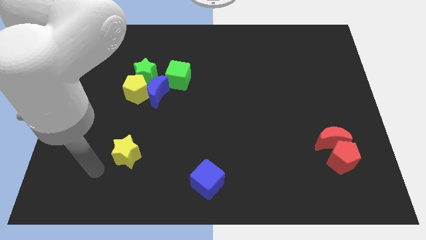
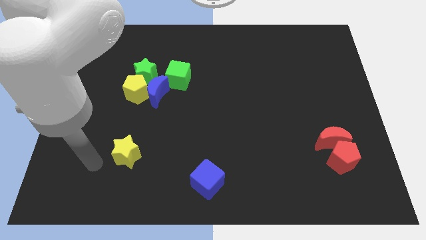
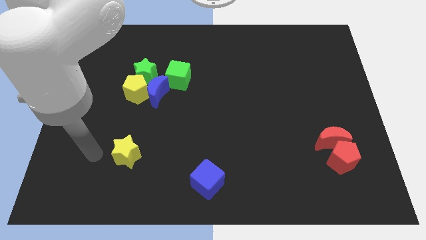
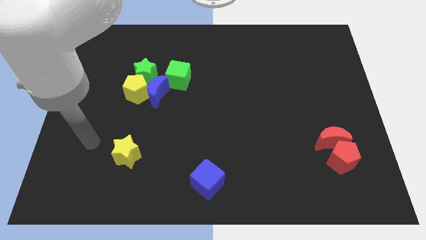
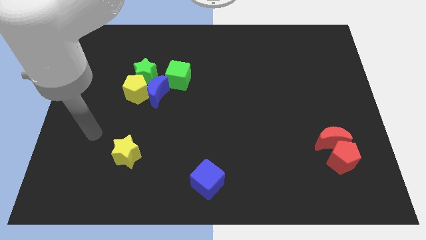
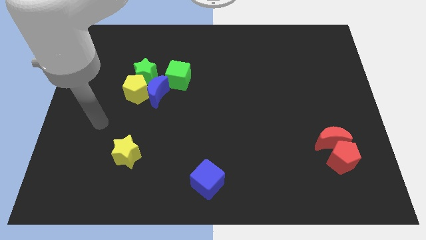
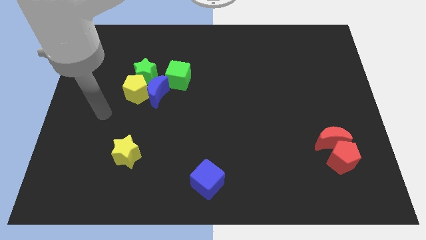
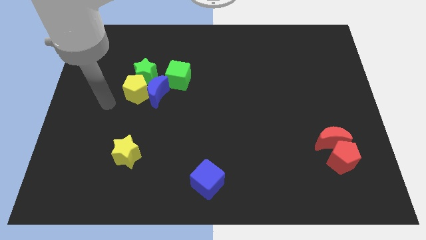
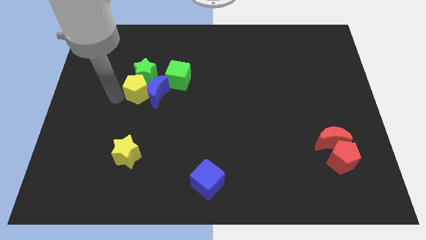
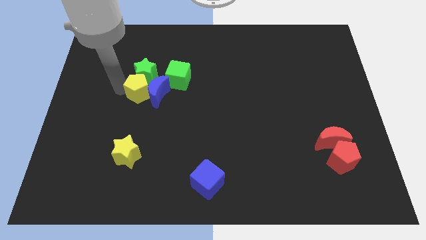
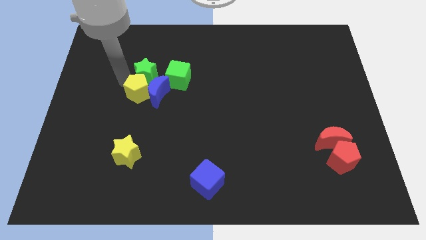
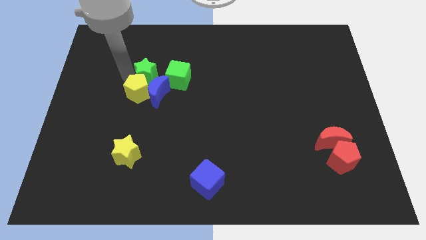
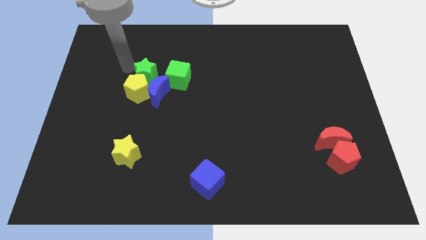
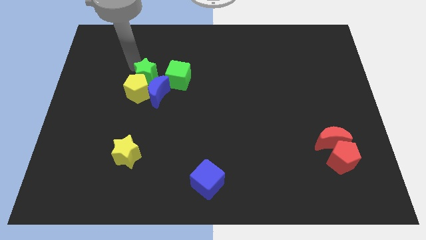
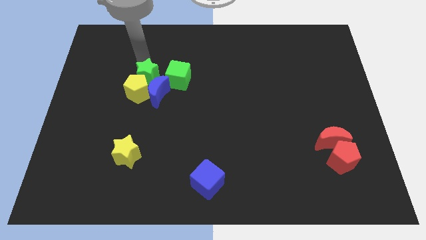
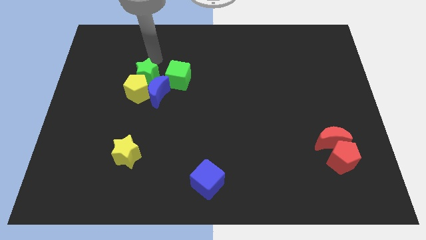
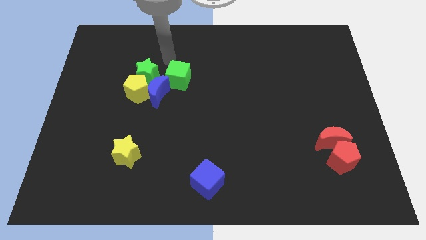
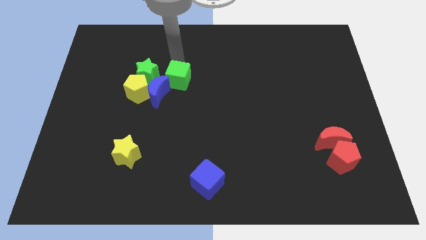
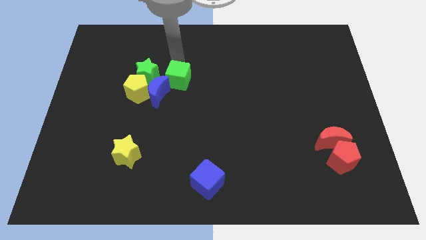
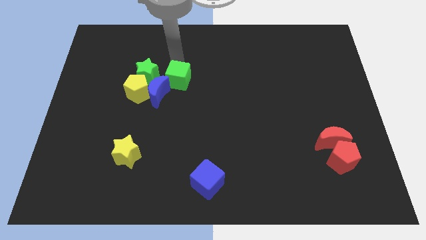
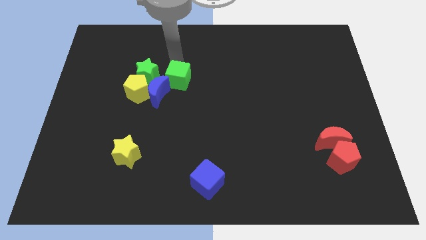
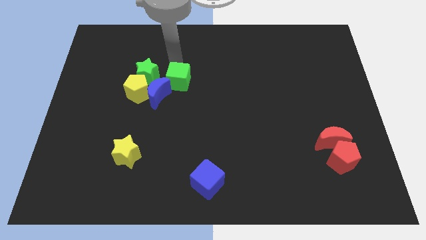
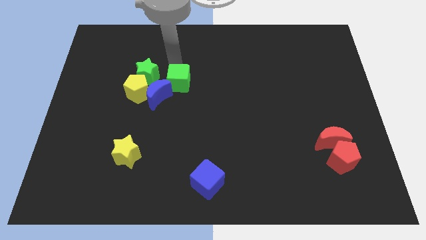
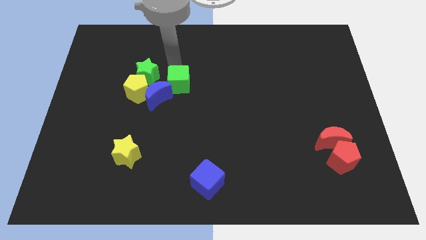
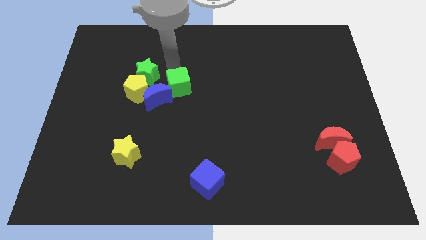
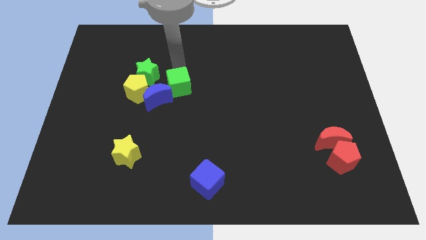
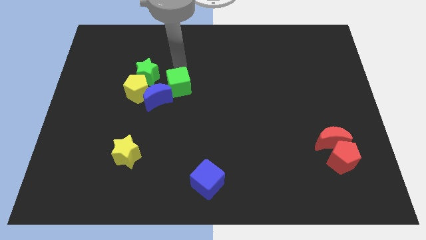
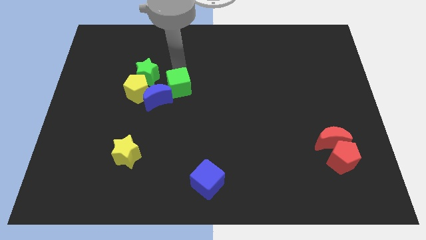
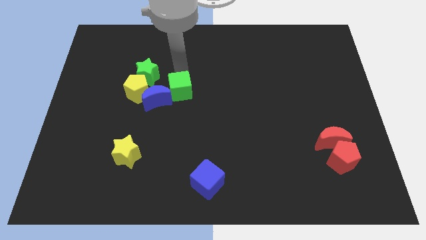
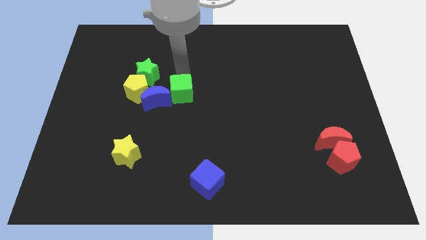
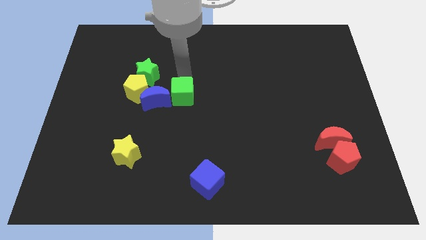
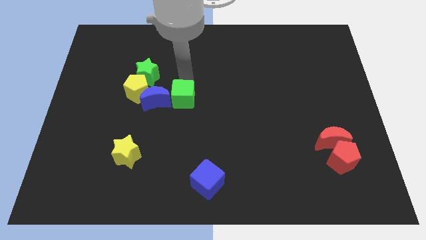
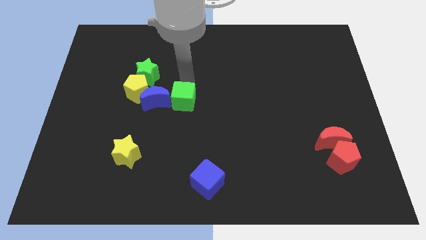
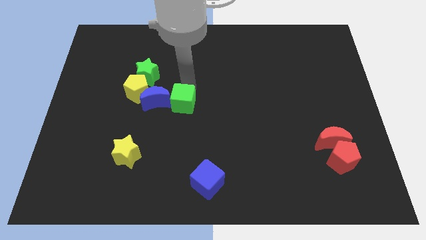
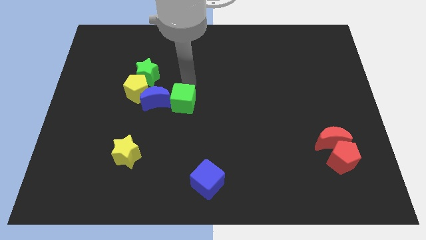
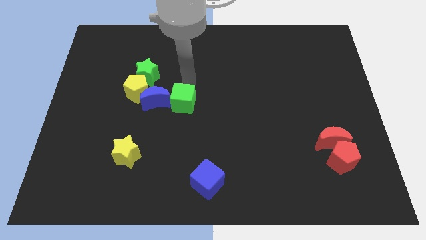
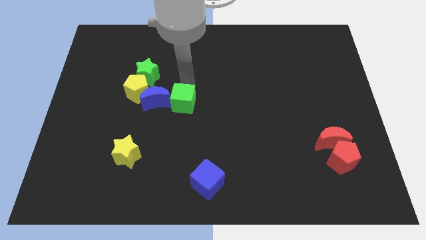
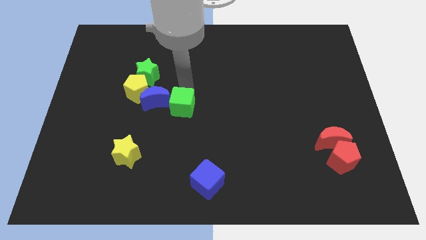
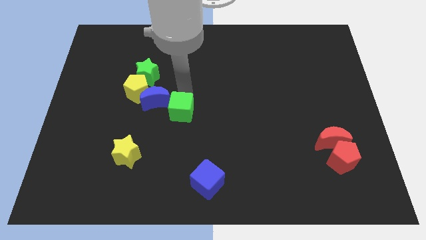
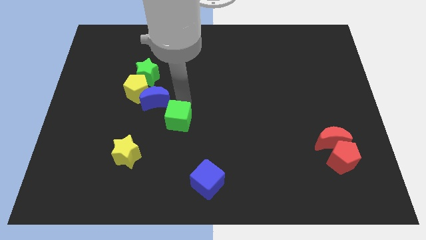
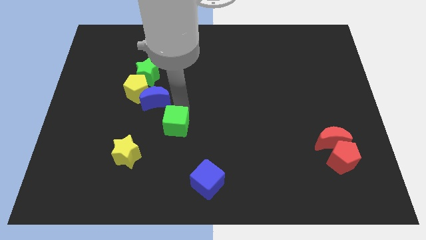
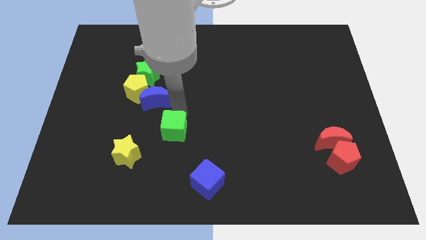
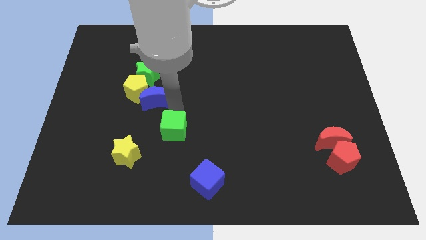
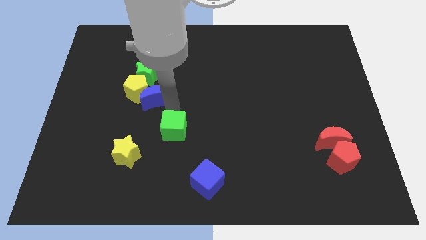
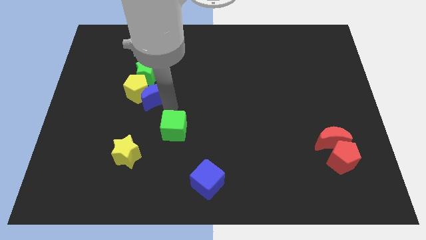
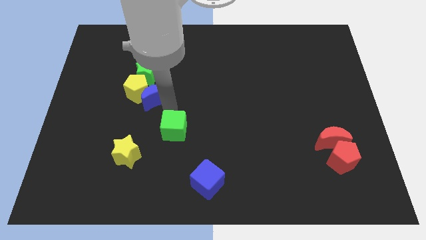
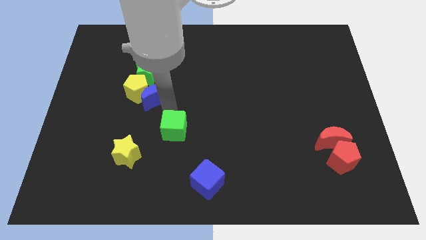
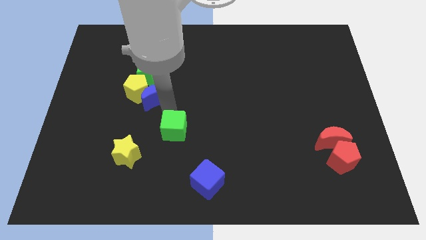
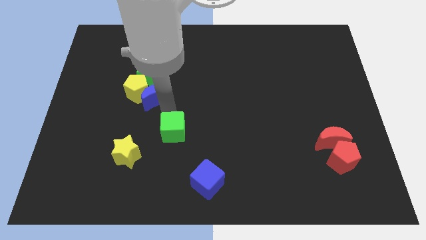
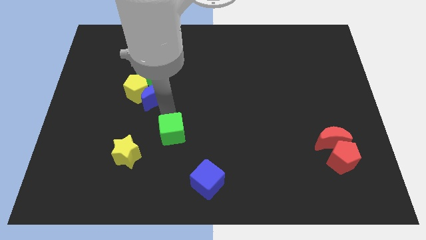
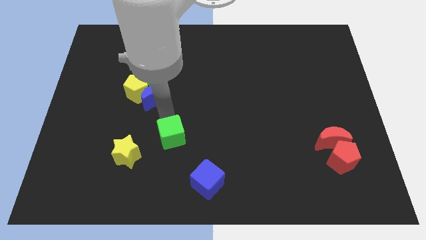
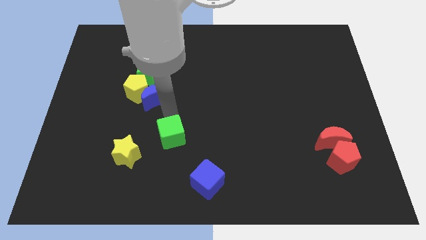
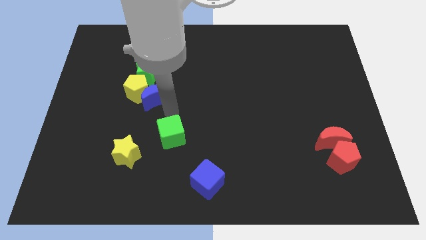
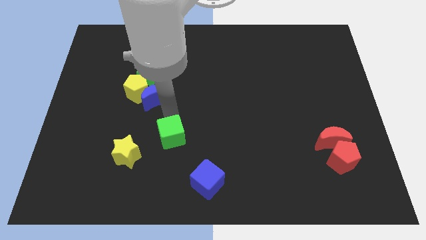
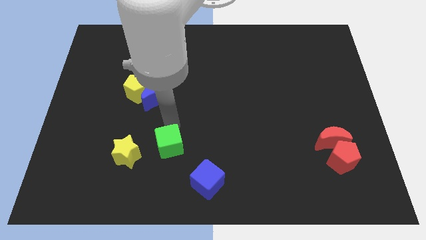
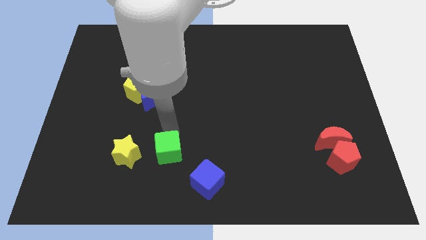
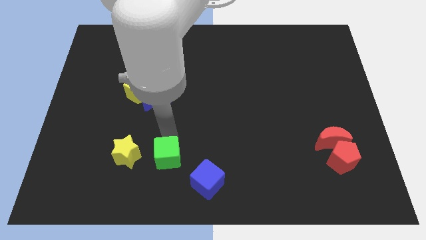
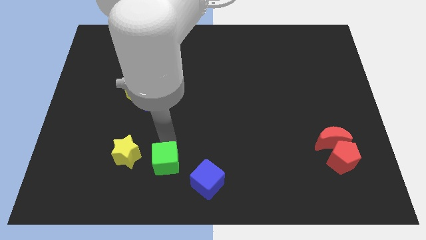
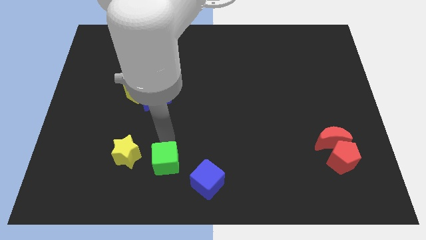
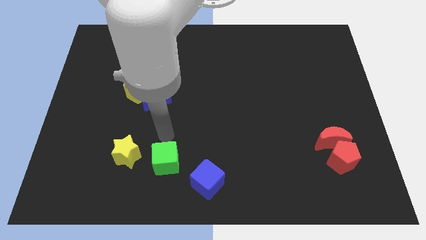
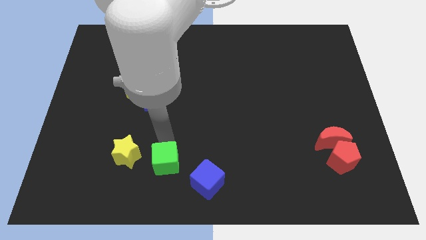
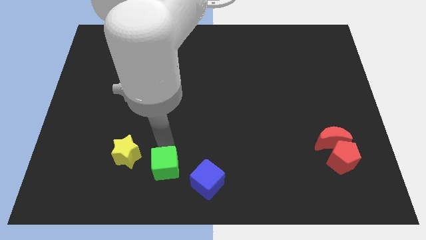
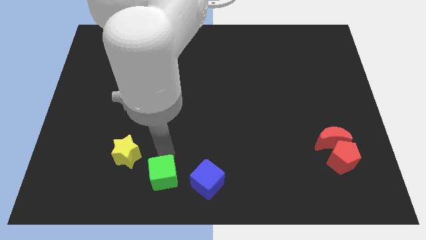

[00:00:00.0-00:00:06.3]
push the green cube to the bottom
